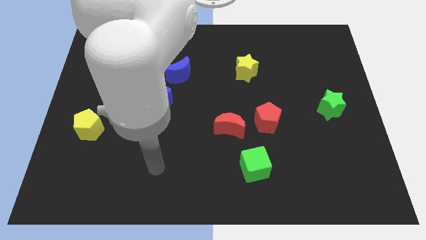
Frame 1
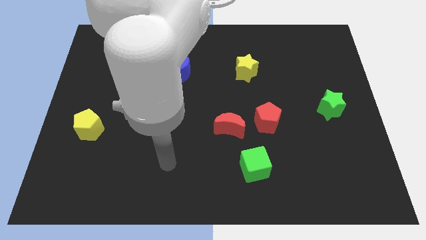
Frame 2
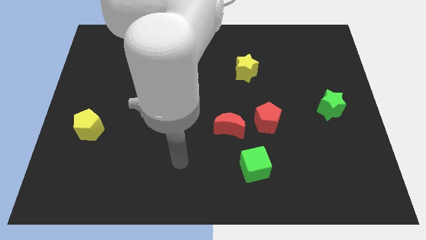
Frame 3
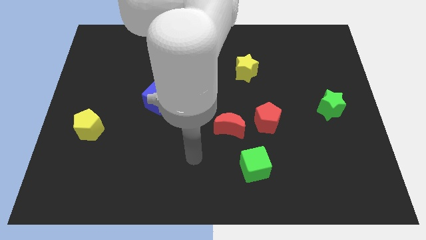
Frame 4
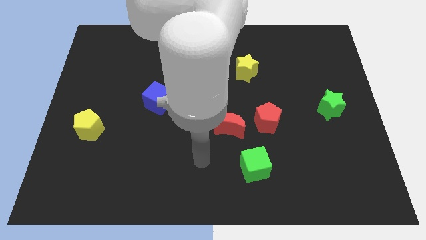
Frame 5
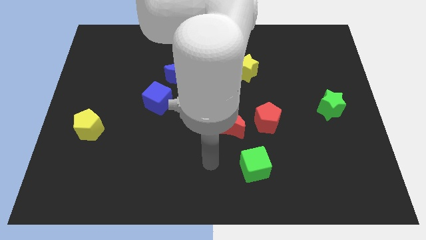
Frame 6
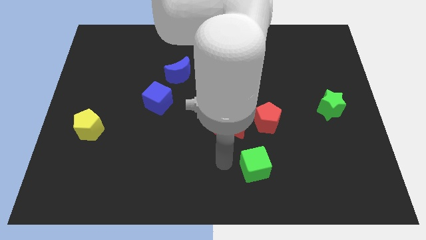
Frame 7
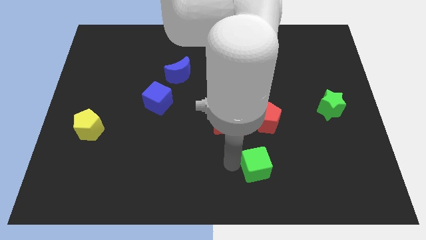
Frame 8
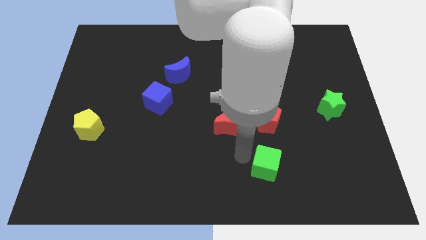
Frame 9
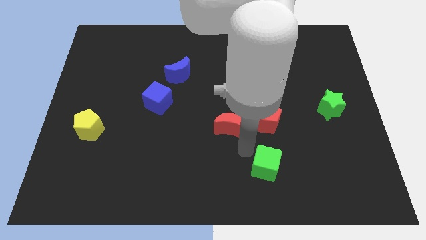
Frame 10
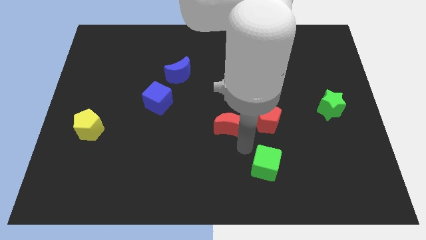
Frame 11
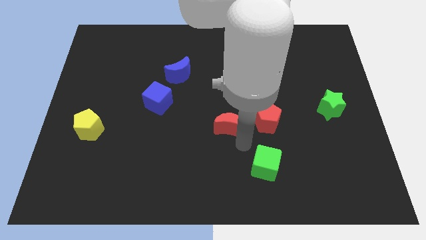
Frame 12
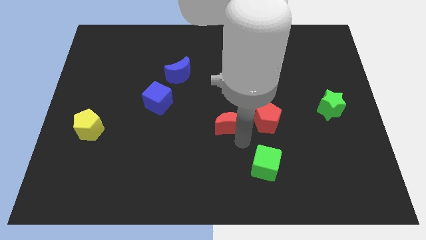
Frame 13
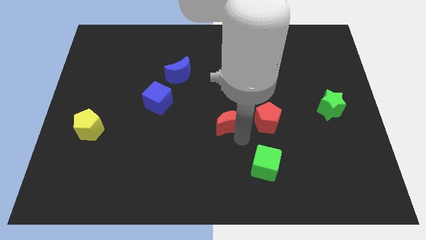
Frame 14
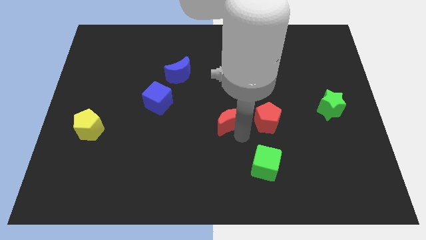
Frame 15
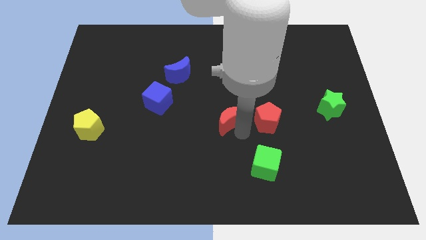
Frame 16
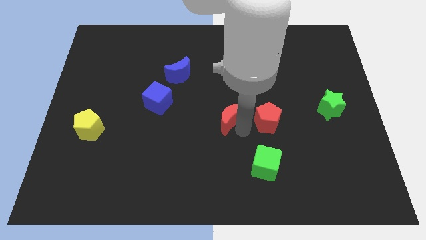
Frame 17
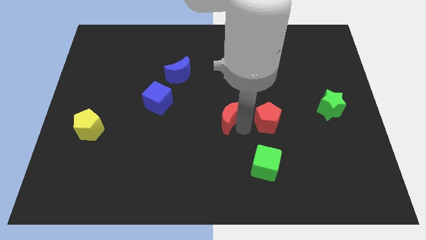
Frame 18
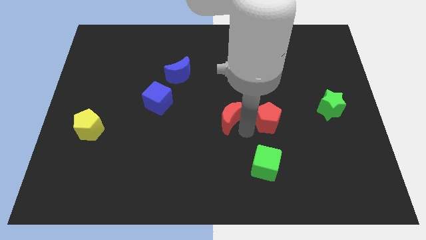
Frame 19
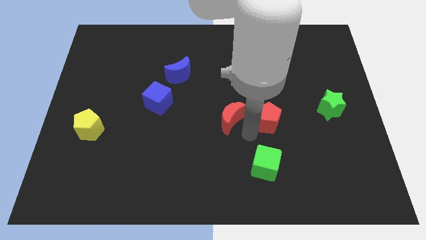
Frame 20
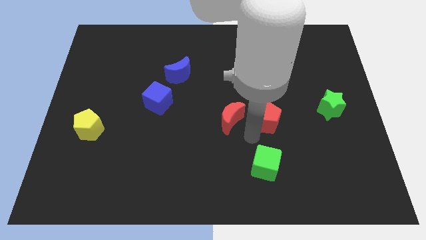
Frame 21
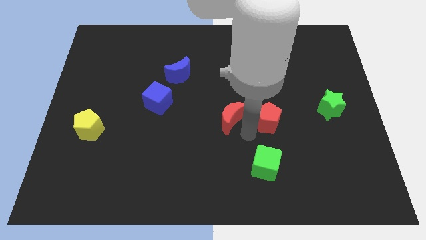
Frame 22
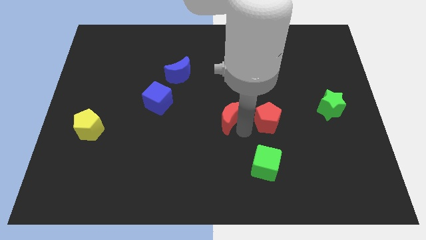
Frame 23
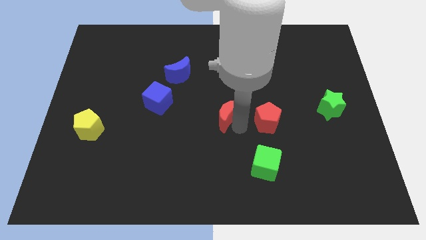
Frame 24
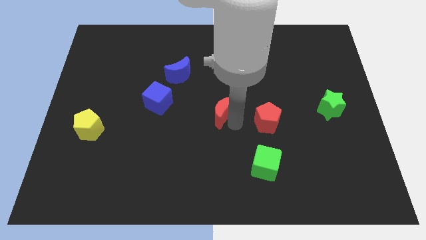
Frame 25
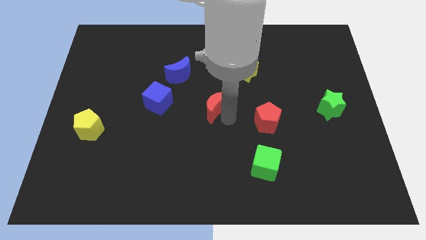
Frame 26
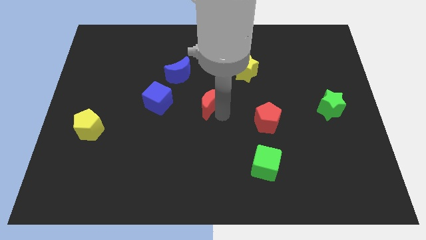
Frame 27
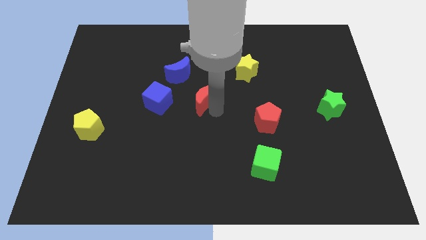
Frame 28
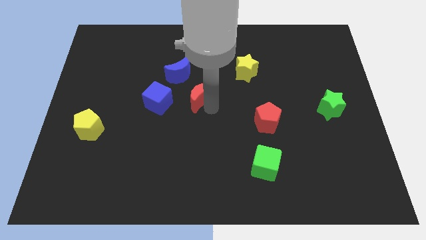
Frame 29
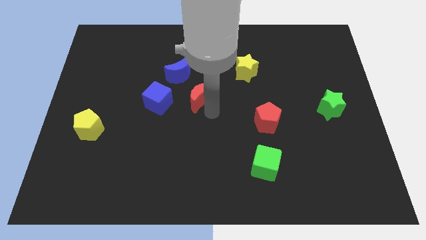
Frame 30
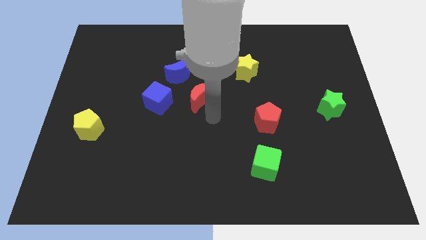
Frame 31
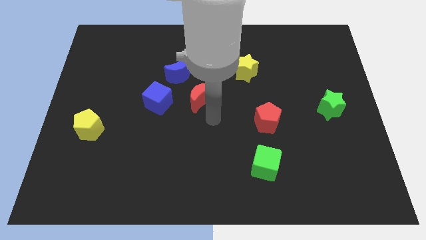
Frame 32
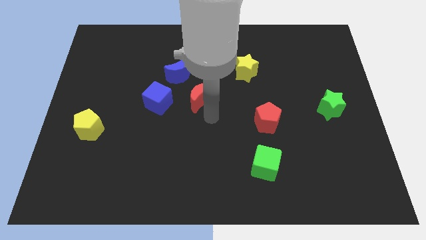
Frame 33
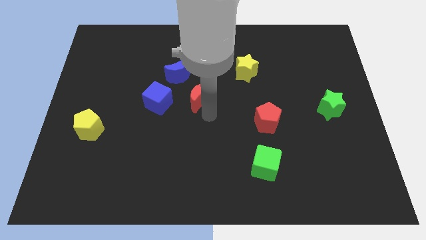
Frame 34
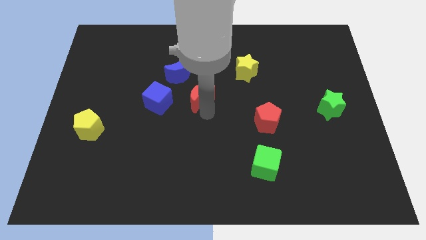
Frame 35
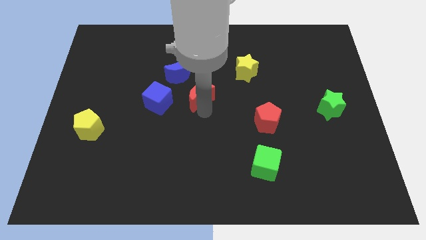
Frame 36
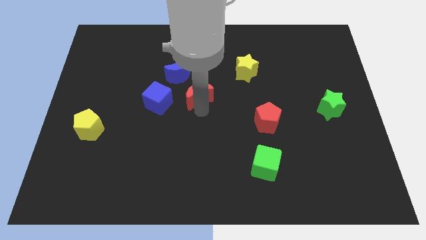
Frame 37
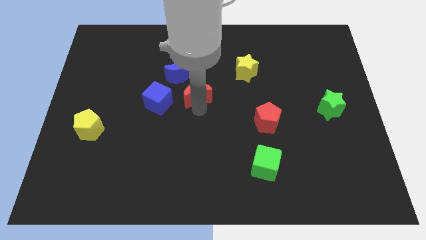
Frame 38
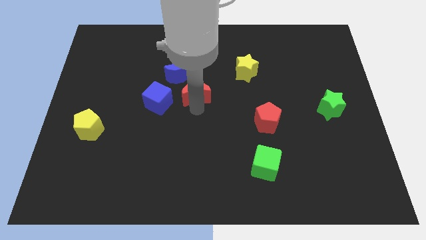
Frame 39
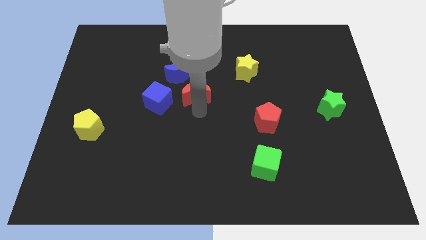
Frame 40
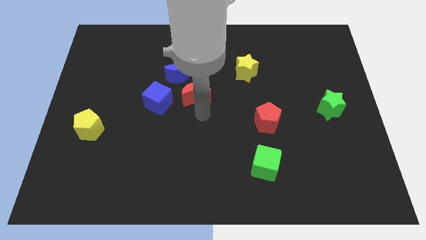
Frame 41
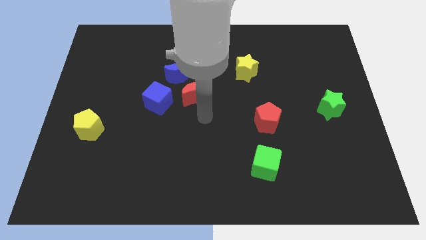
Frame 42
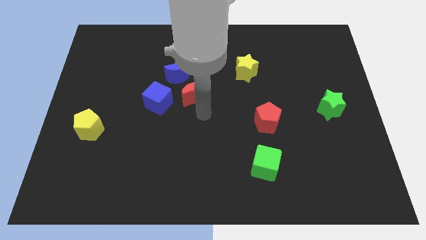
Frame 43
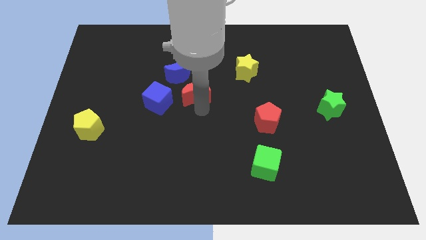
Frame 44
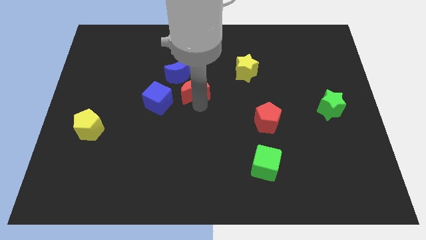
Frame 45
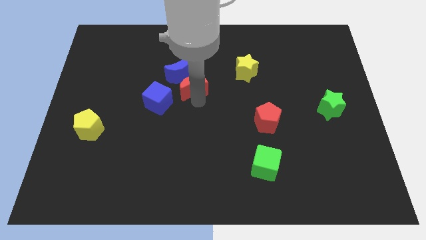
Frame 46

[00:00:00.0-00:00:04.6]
slide the red moon next to the blue moon

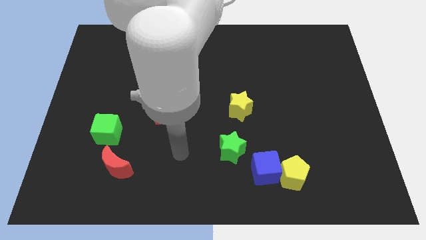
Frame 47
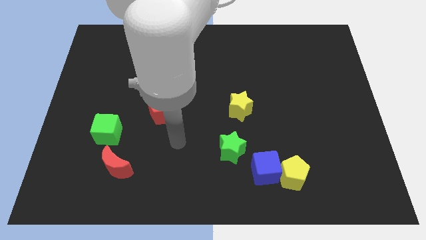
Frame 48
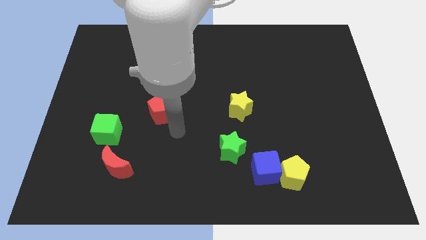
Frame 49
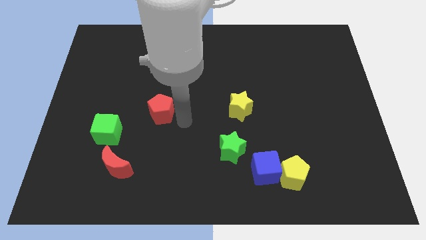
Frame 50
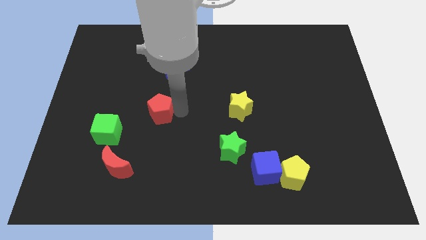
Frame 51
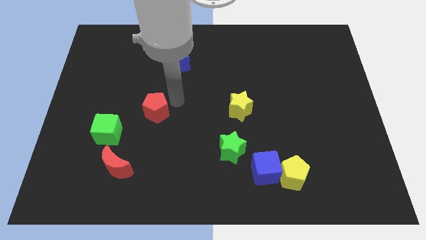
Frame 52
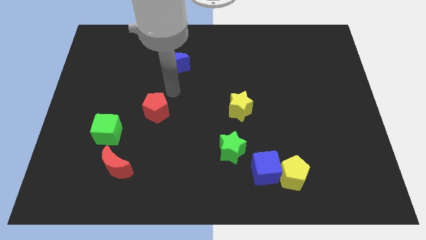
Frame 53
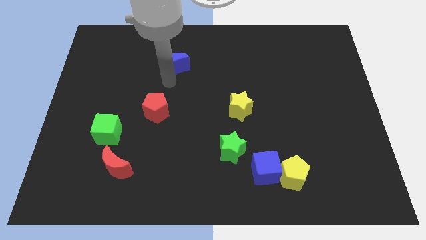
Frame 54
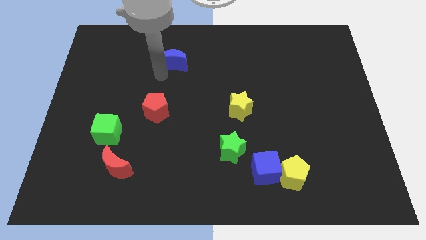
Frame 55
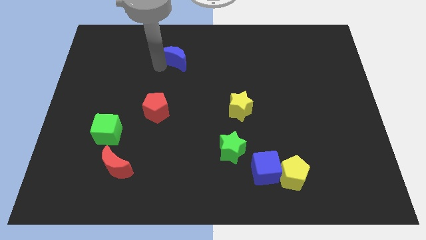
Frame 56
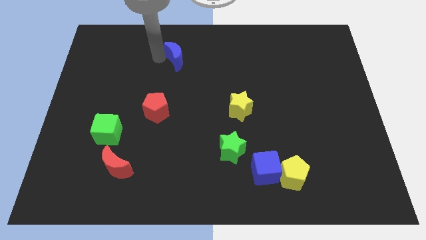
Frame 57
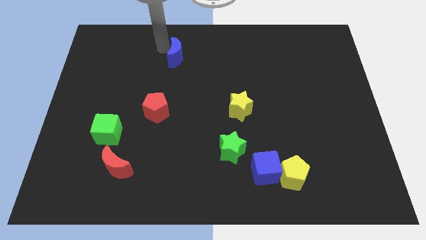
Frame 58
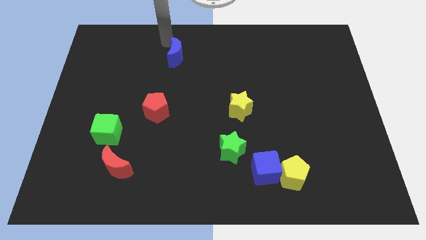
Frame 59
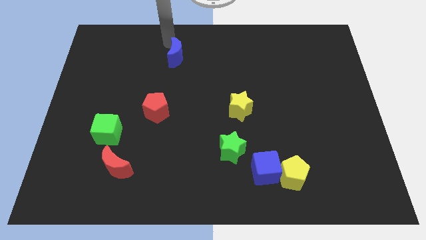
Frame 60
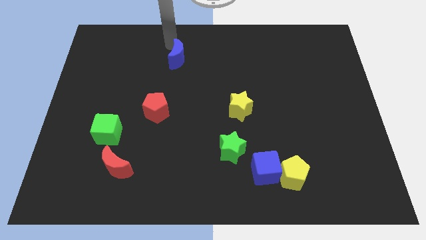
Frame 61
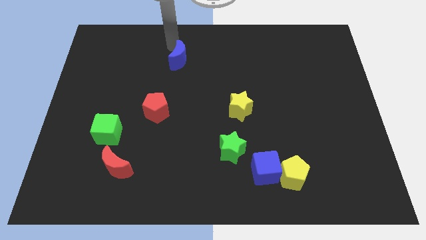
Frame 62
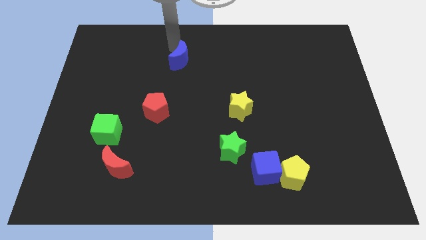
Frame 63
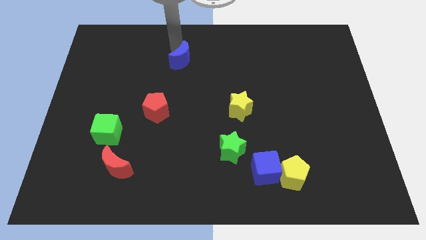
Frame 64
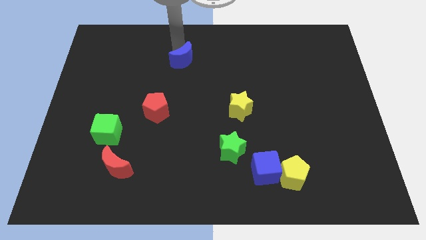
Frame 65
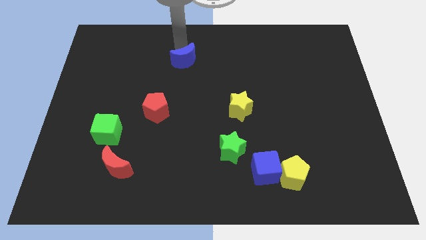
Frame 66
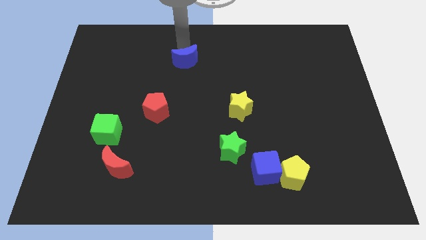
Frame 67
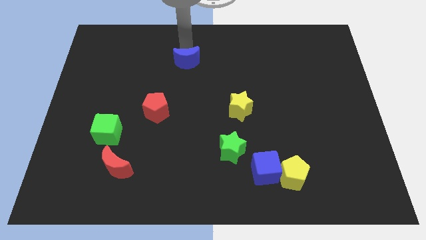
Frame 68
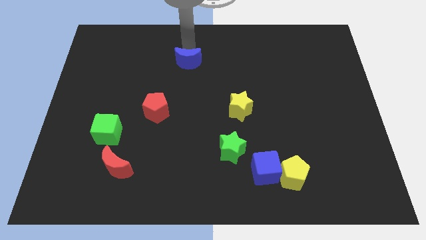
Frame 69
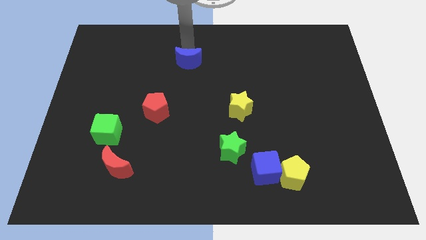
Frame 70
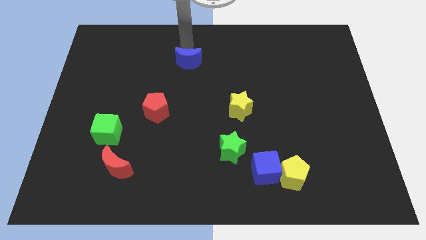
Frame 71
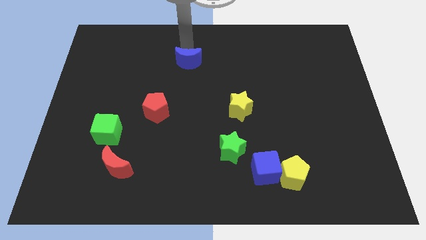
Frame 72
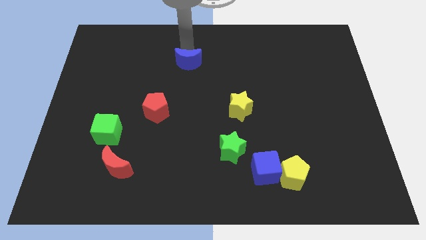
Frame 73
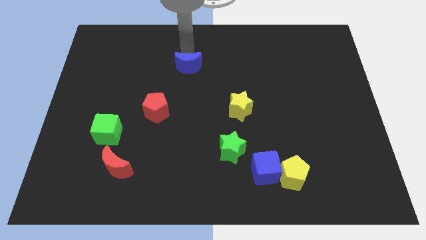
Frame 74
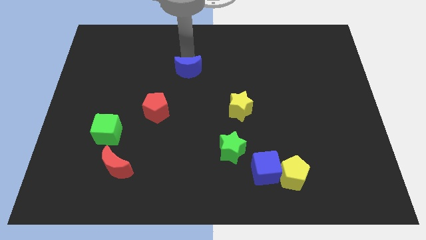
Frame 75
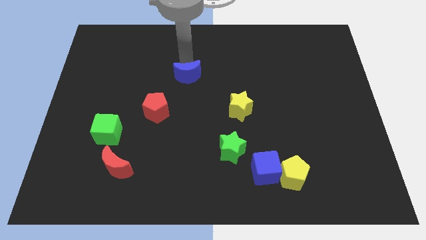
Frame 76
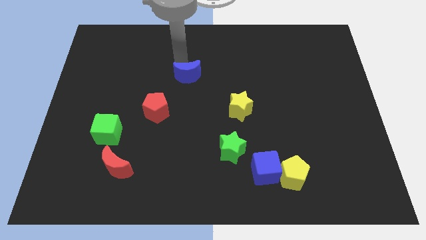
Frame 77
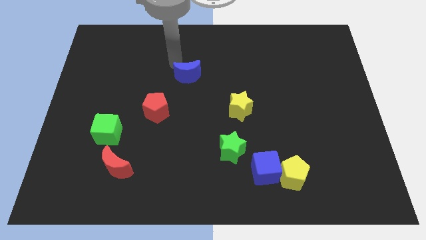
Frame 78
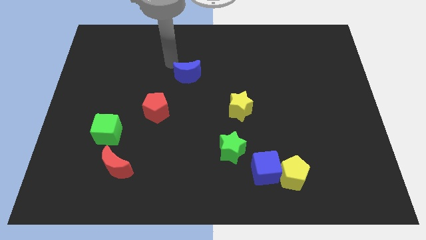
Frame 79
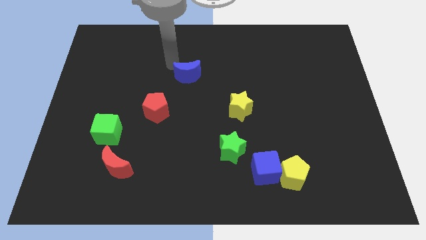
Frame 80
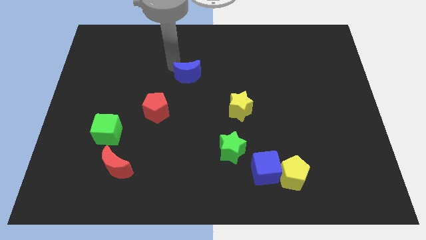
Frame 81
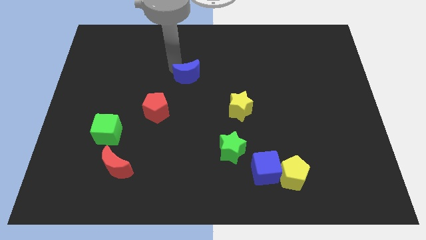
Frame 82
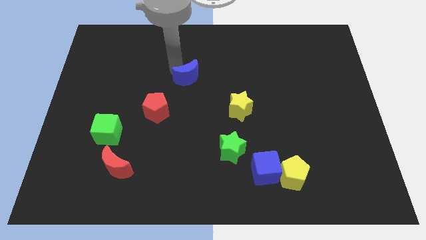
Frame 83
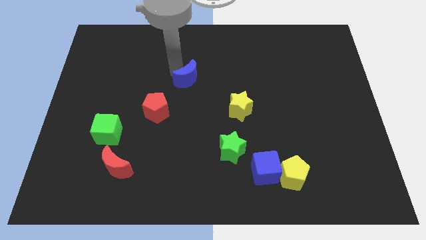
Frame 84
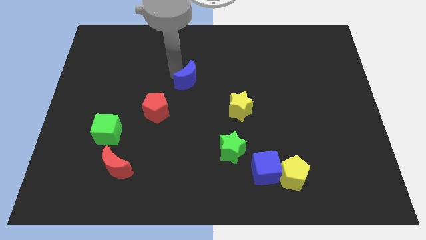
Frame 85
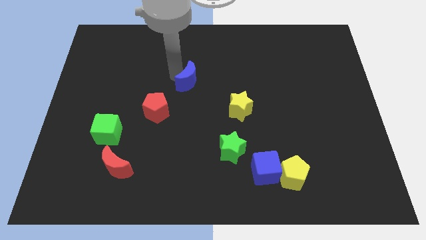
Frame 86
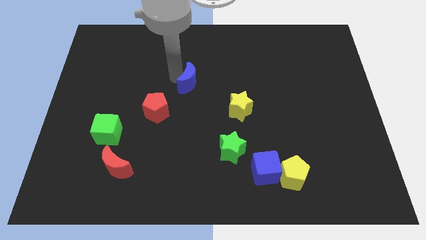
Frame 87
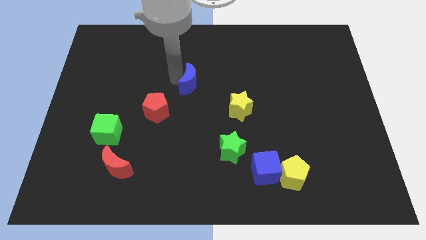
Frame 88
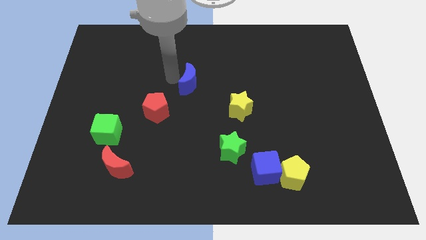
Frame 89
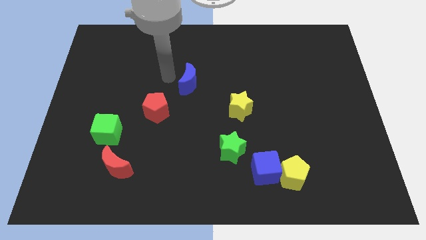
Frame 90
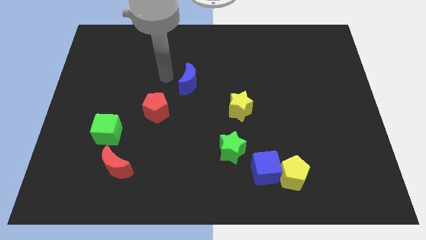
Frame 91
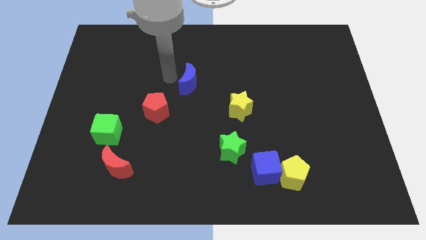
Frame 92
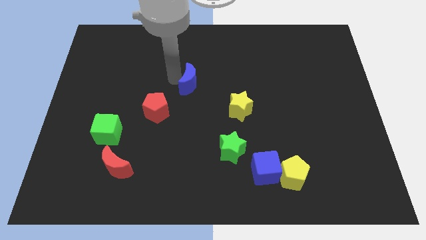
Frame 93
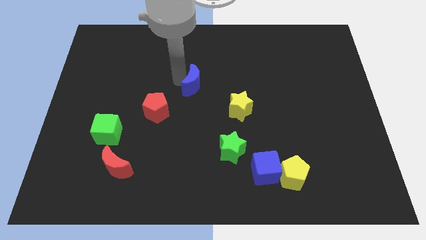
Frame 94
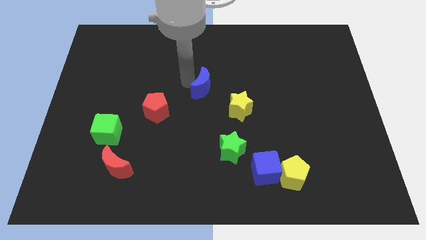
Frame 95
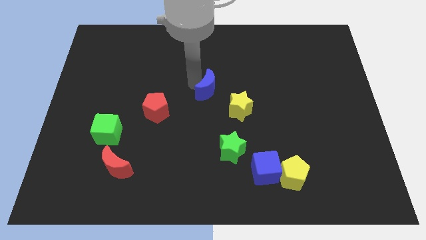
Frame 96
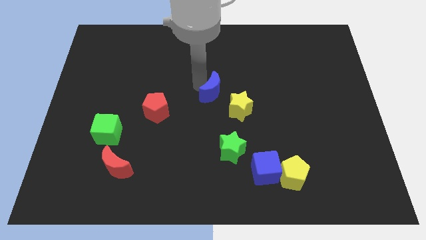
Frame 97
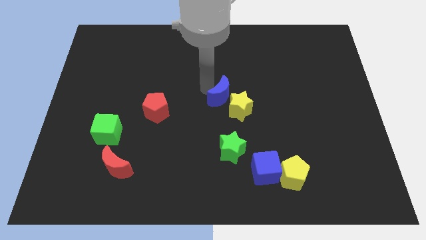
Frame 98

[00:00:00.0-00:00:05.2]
move the blue moon towards the yellow star
